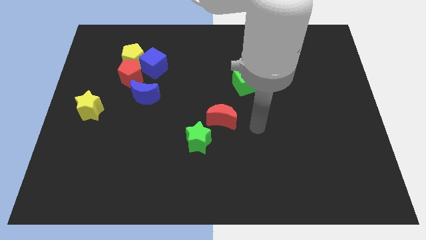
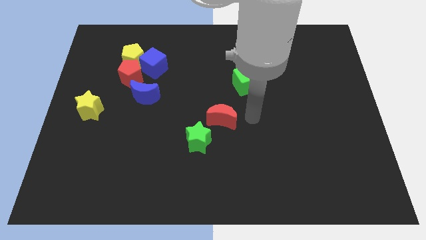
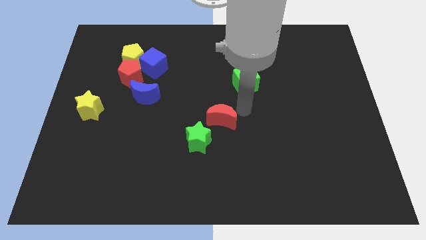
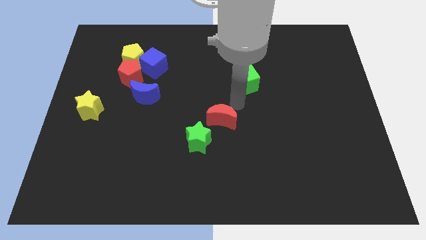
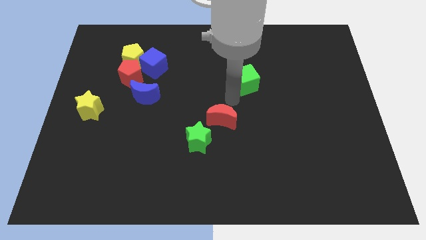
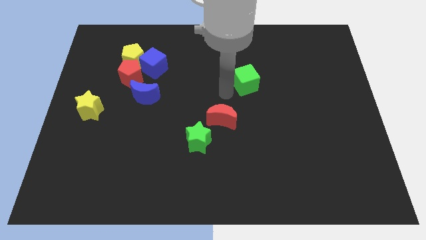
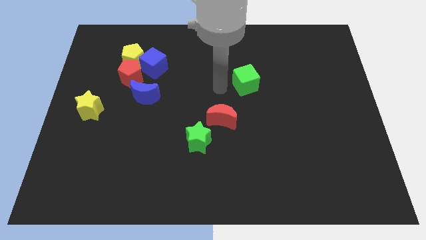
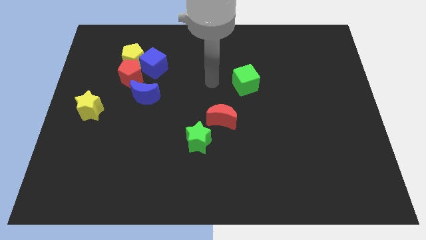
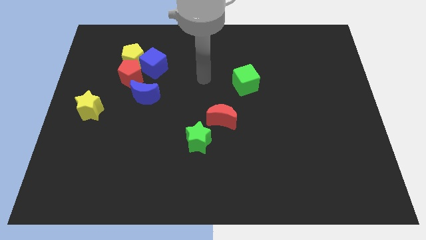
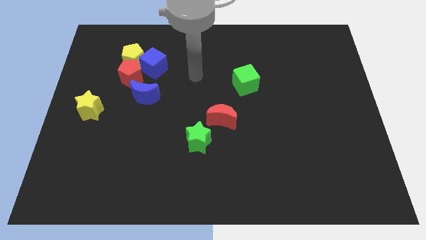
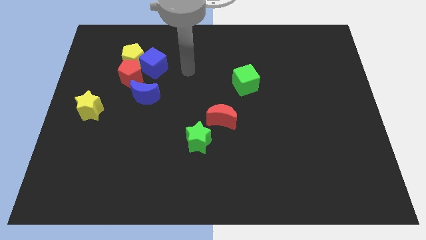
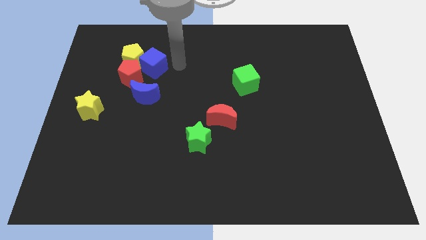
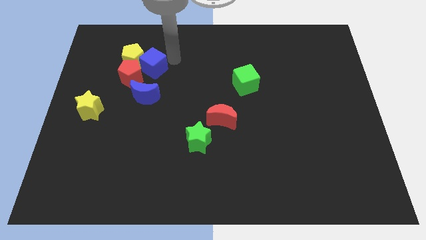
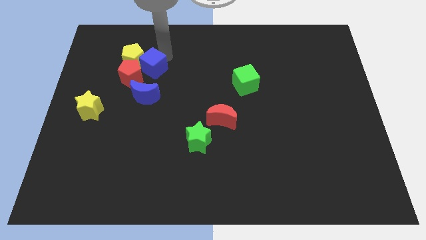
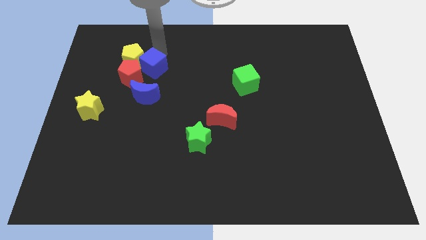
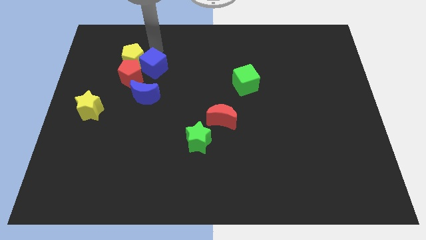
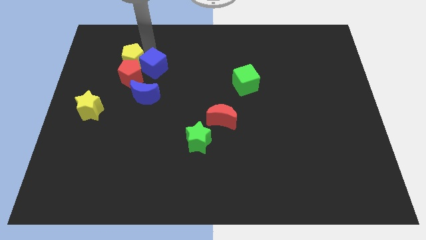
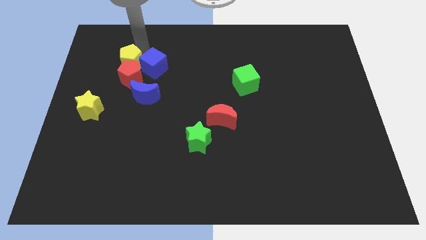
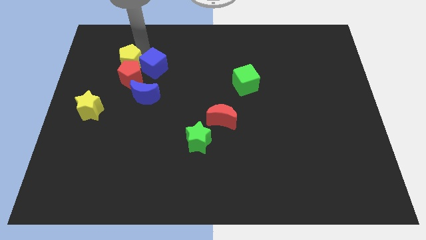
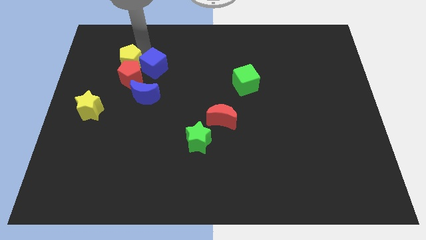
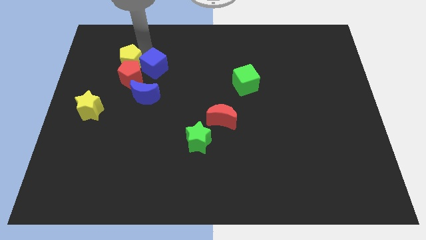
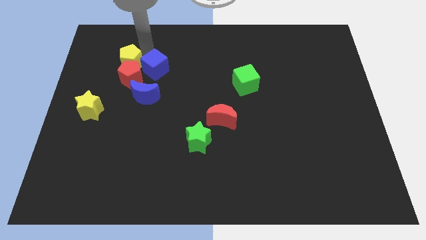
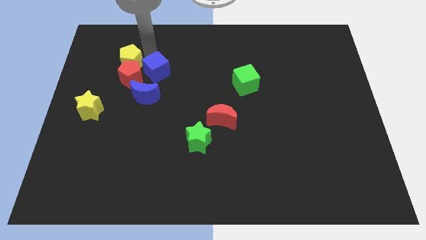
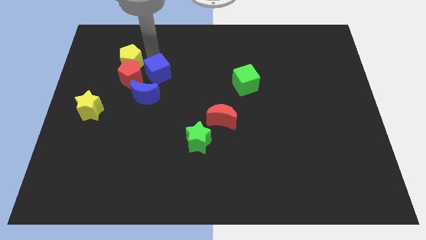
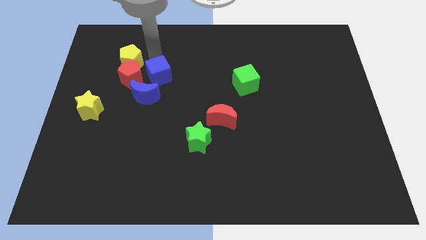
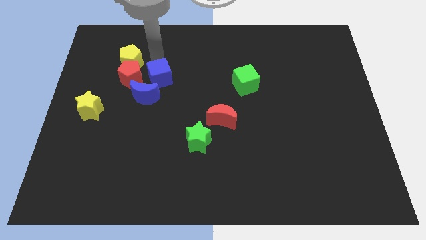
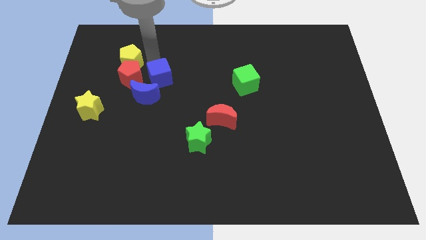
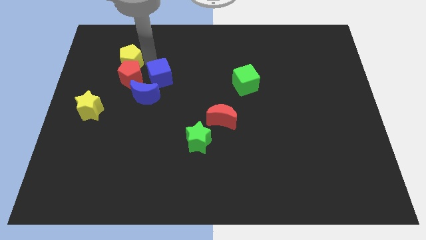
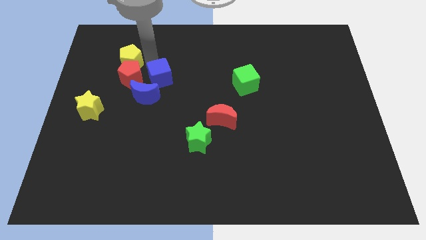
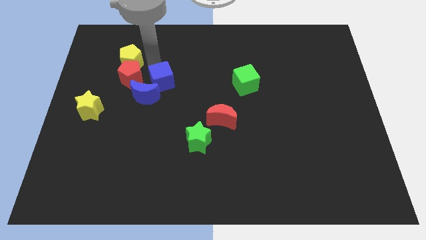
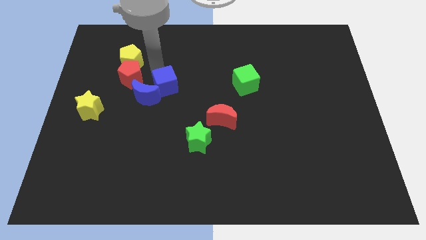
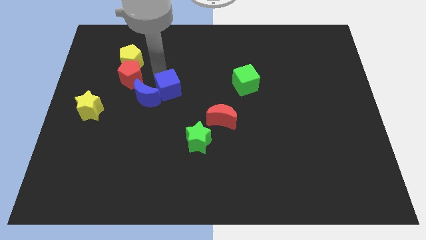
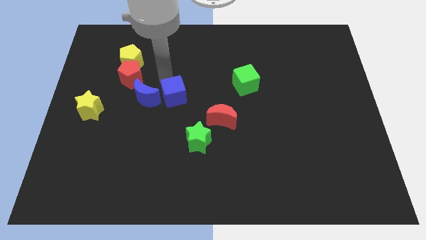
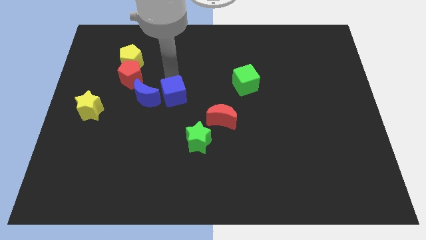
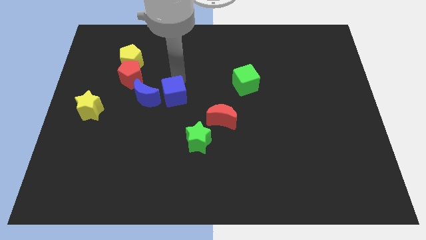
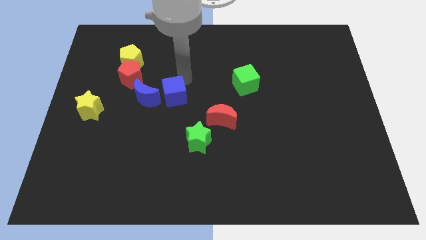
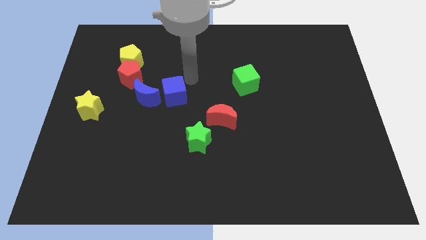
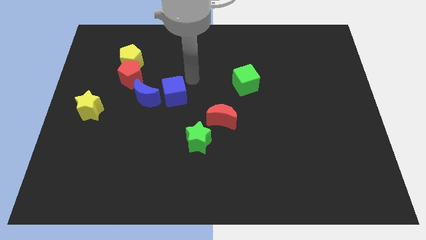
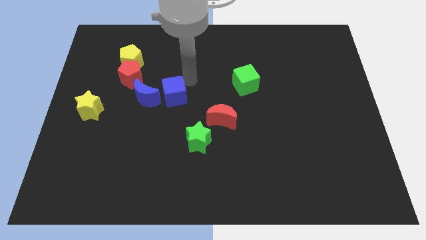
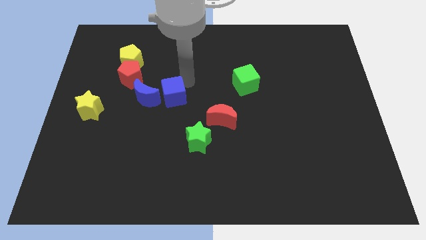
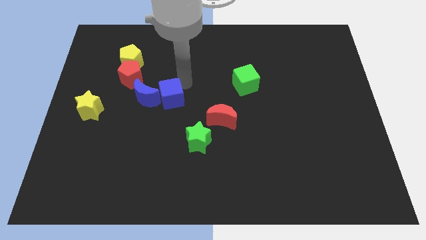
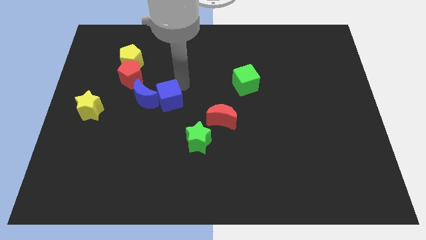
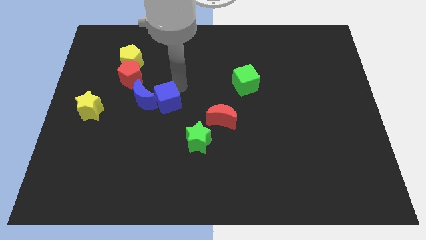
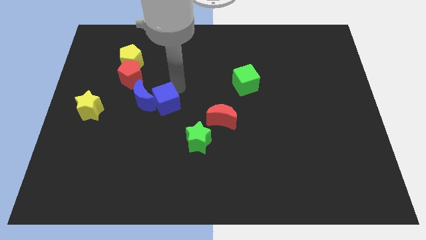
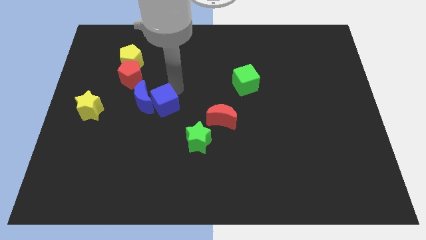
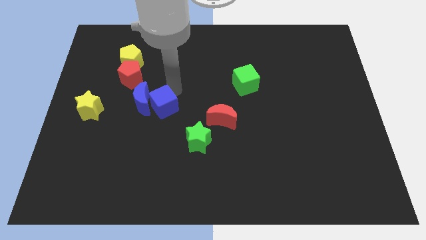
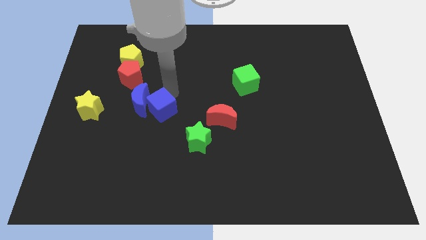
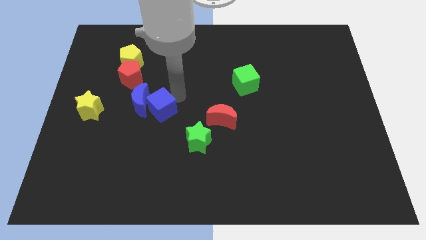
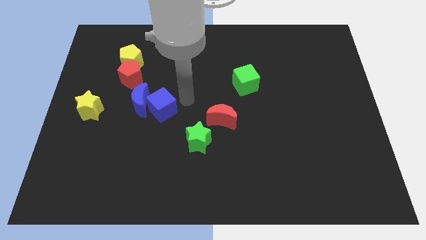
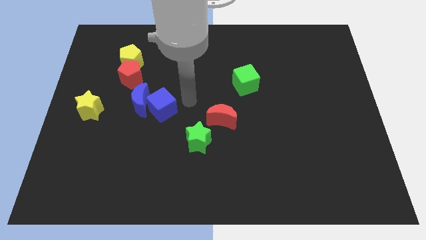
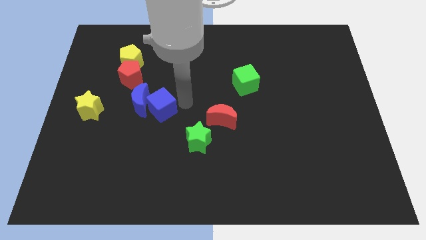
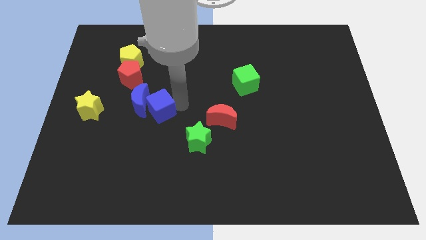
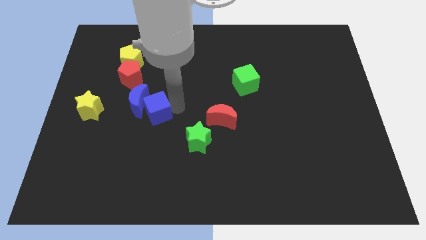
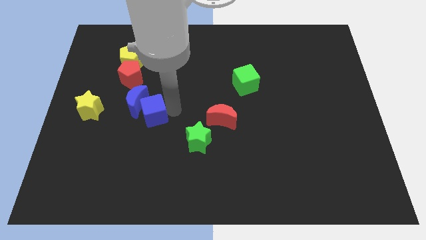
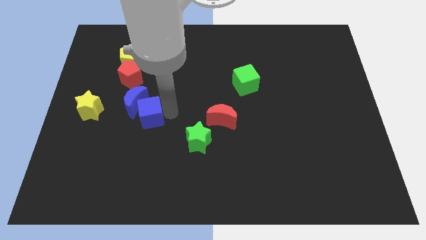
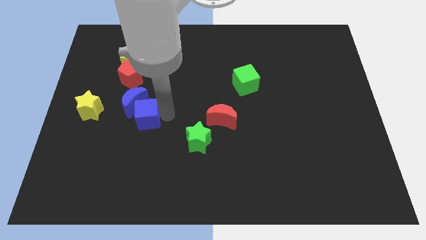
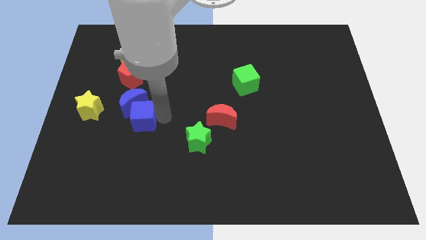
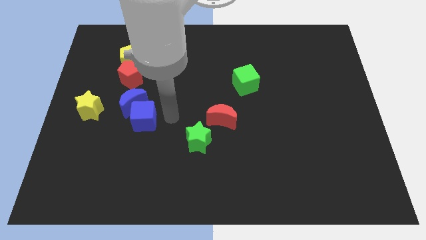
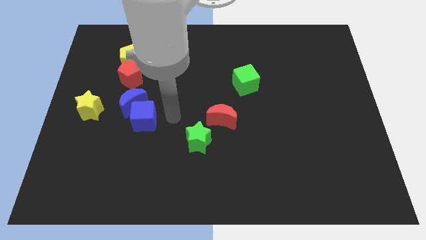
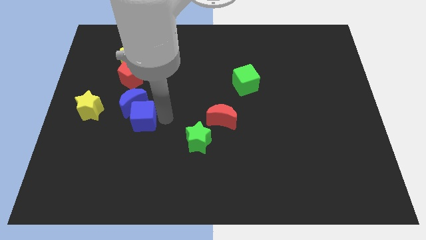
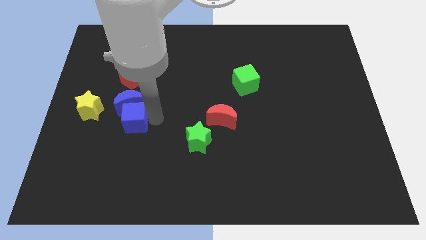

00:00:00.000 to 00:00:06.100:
slide the blue cube to the bottom left of the blue moon

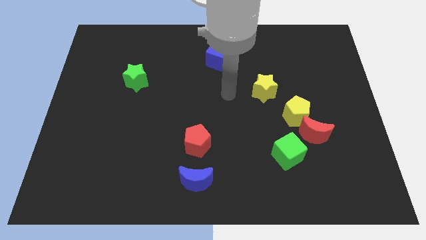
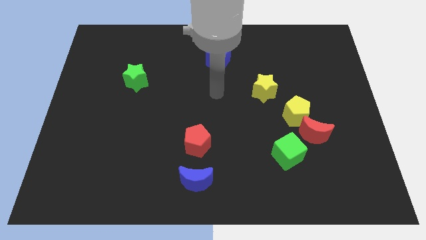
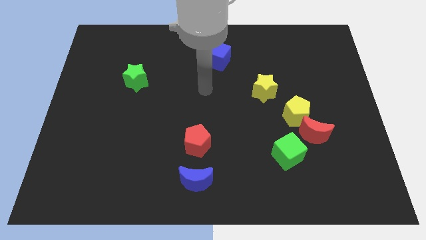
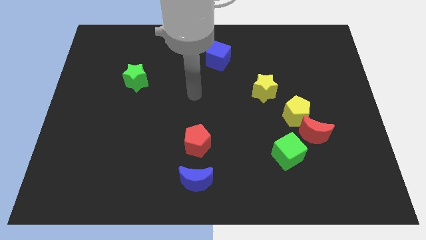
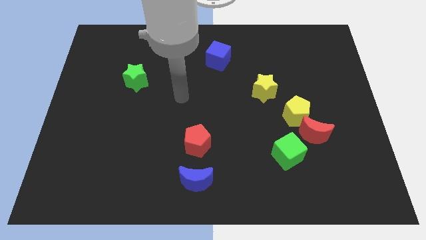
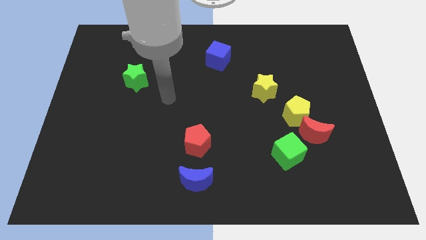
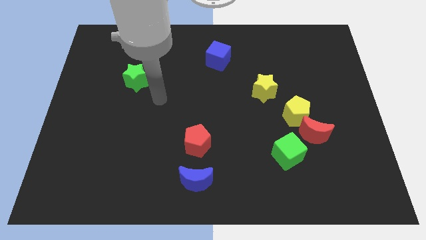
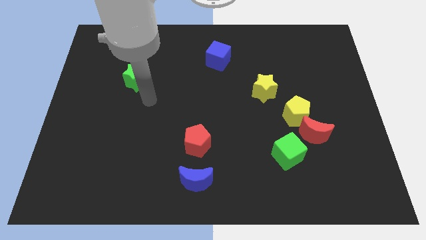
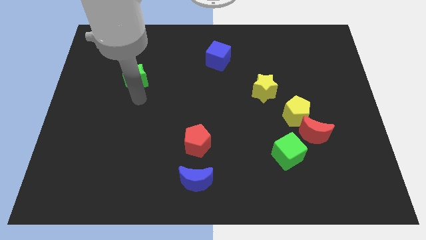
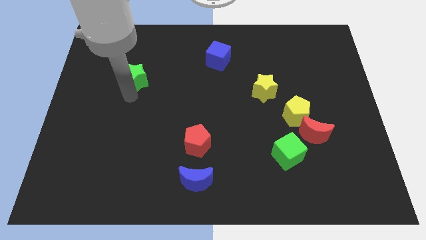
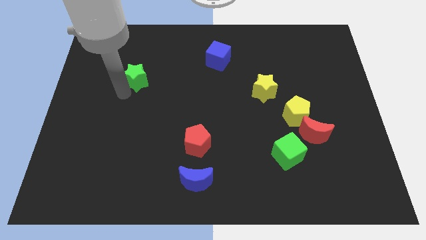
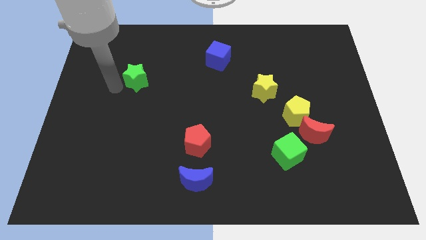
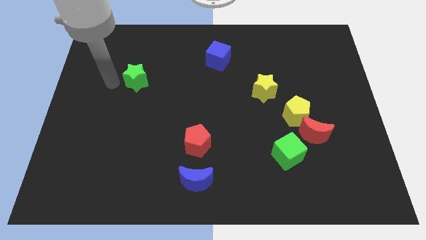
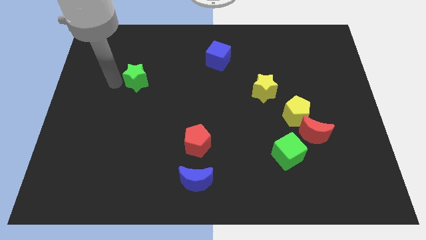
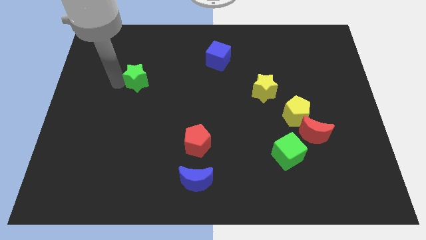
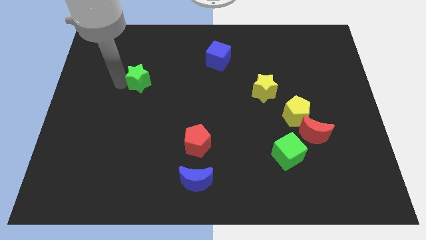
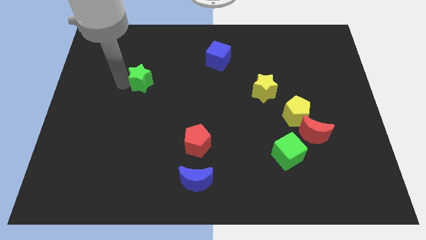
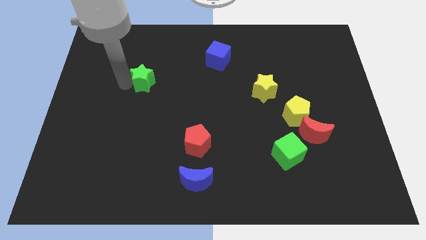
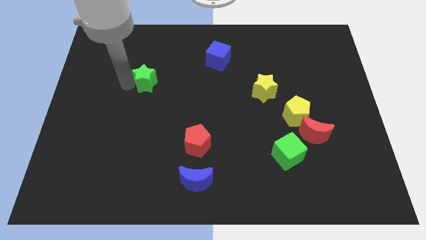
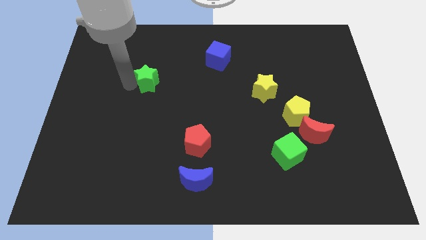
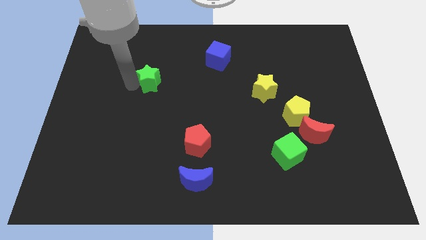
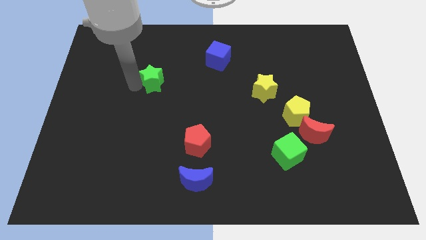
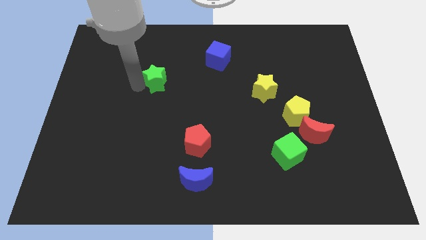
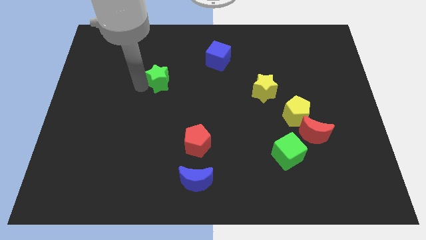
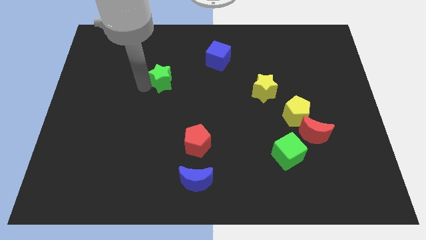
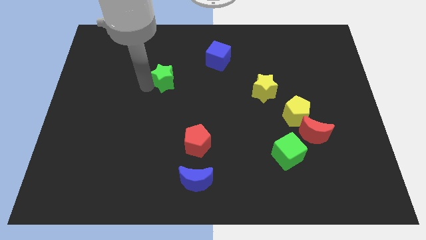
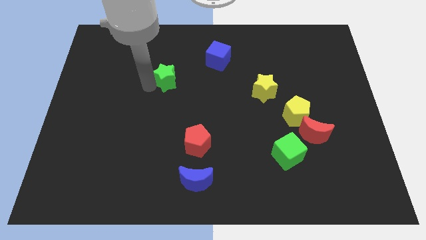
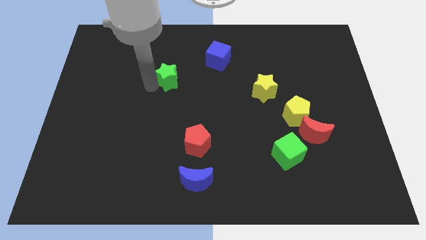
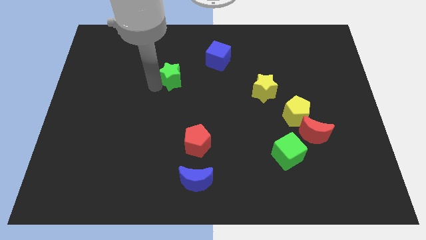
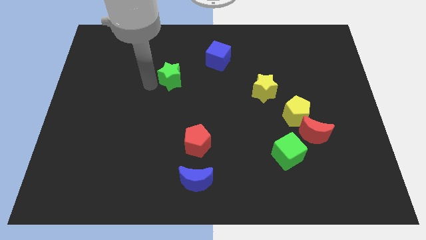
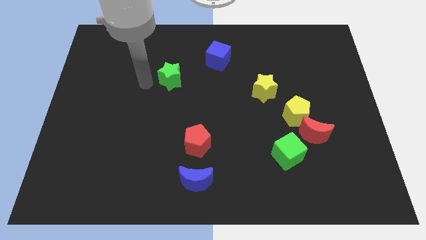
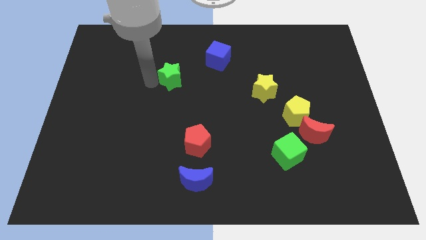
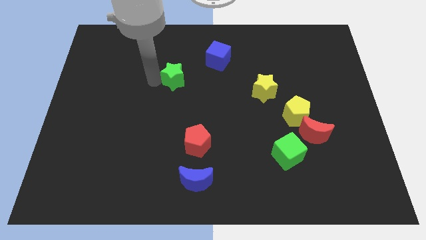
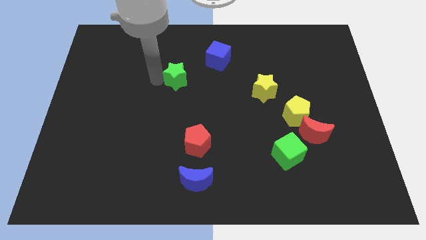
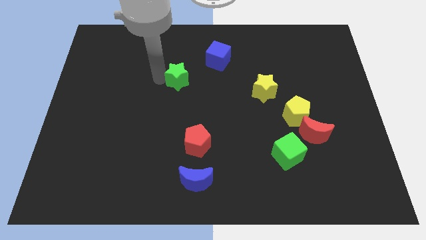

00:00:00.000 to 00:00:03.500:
put the green star diagonally down and to the left of the blue cube
